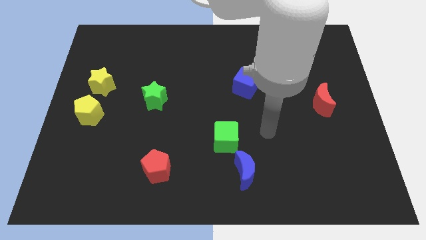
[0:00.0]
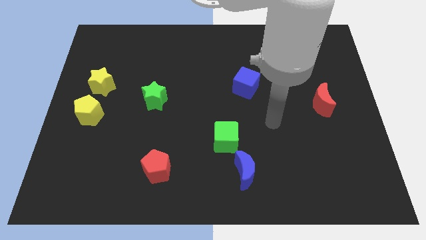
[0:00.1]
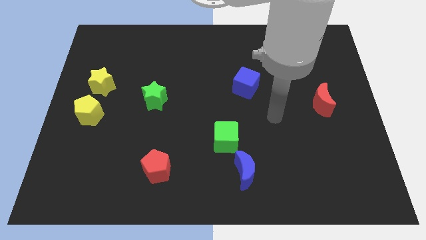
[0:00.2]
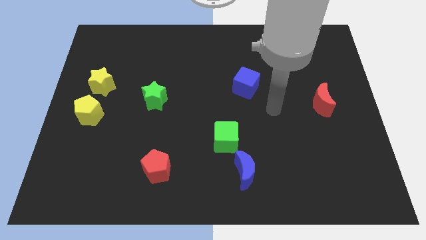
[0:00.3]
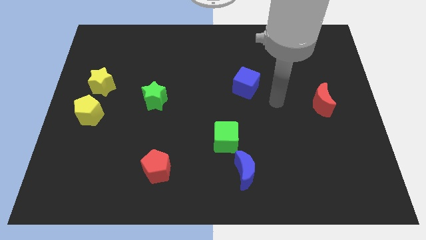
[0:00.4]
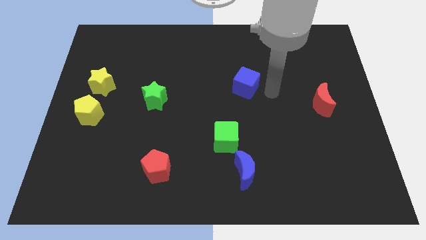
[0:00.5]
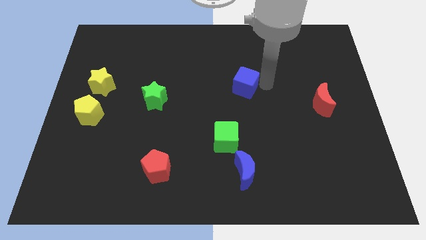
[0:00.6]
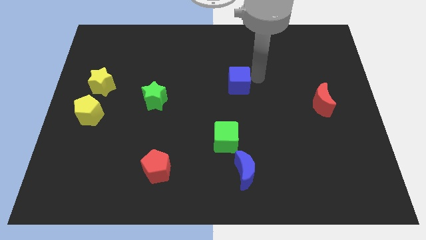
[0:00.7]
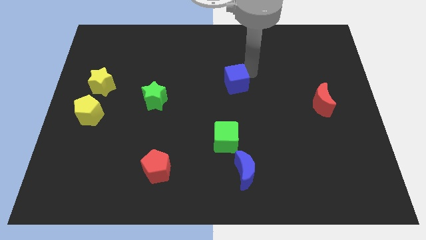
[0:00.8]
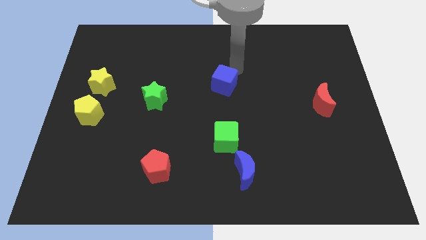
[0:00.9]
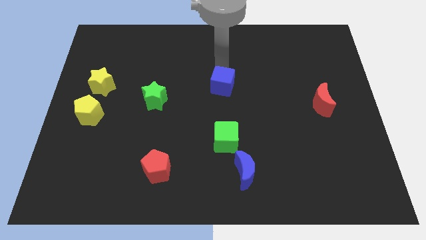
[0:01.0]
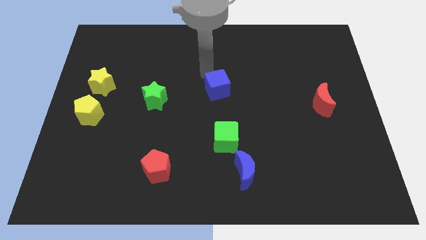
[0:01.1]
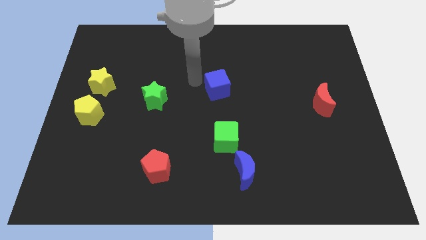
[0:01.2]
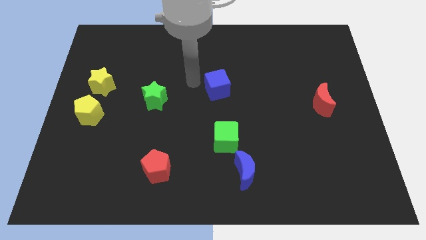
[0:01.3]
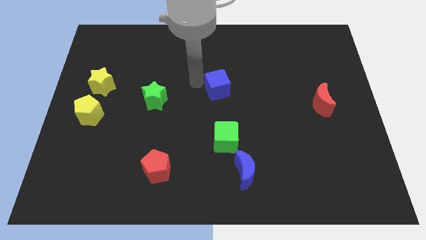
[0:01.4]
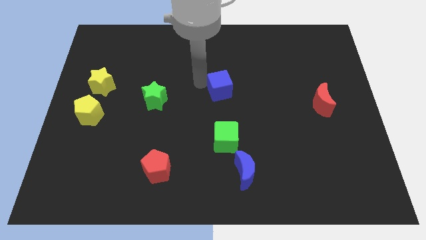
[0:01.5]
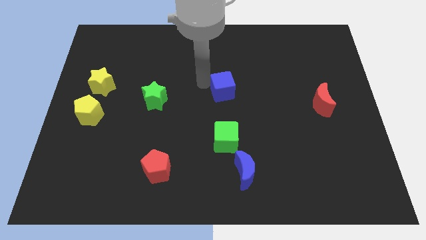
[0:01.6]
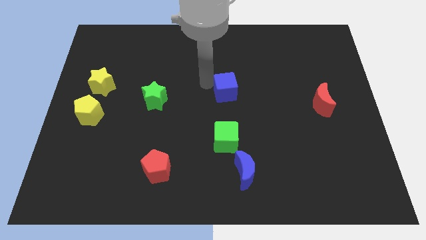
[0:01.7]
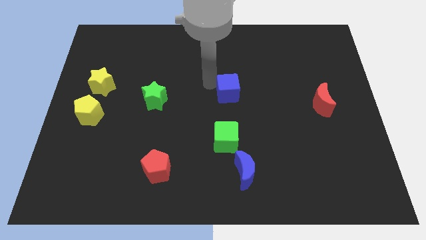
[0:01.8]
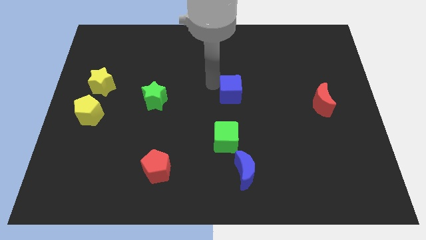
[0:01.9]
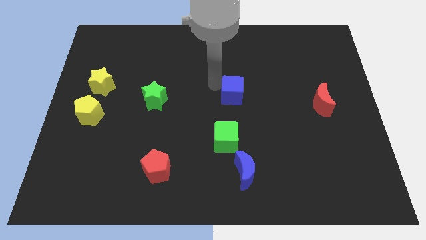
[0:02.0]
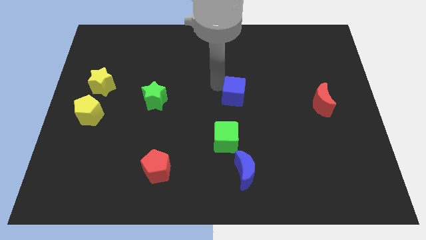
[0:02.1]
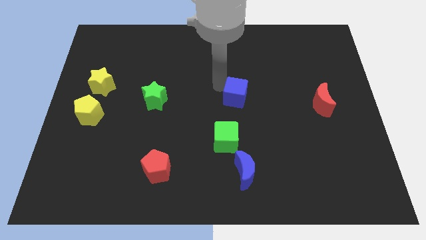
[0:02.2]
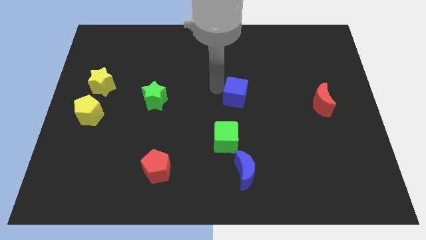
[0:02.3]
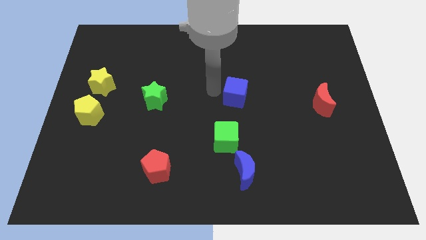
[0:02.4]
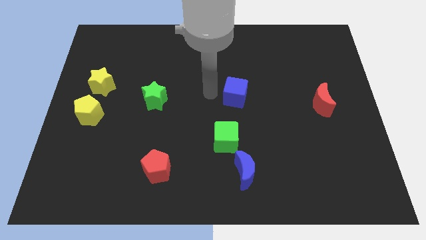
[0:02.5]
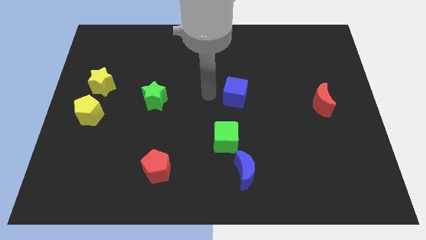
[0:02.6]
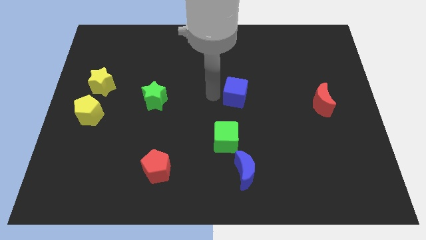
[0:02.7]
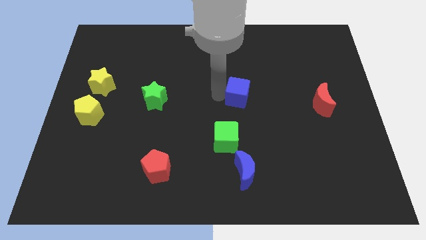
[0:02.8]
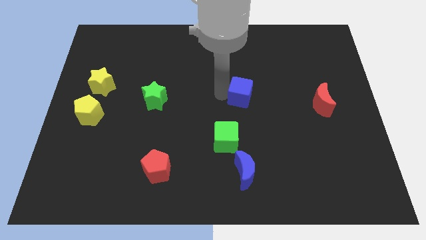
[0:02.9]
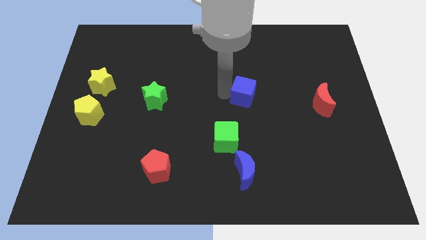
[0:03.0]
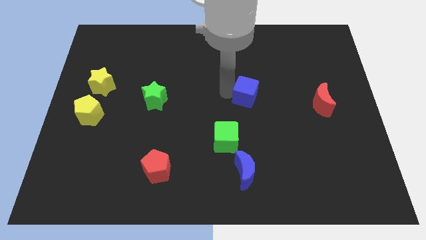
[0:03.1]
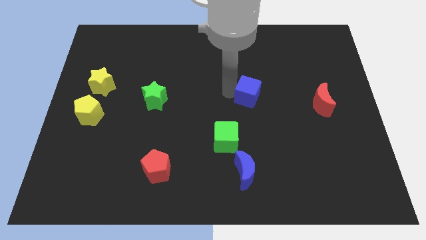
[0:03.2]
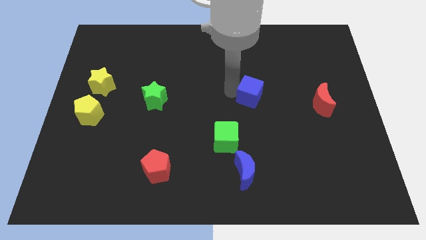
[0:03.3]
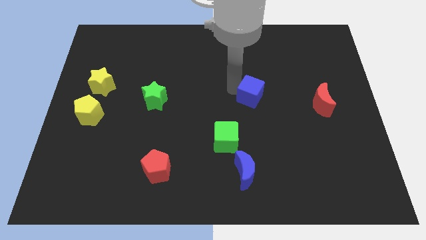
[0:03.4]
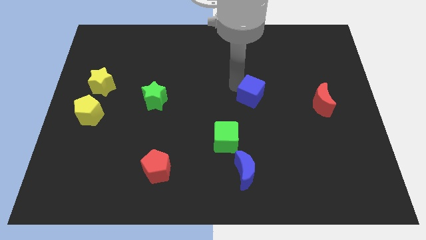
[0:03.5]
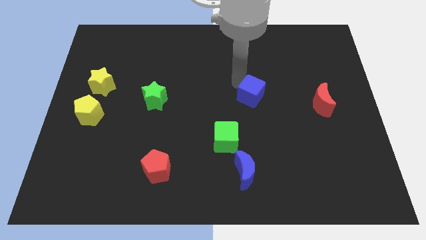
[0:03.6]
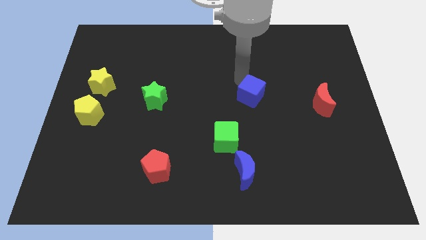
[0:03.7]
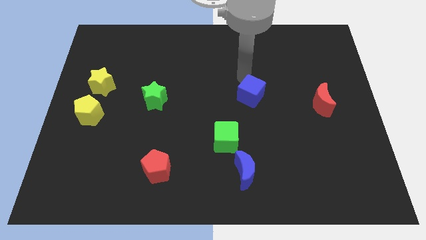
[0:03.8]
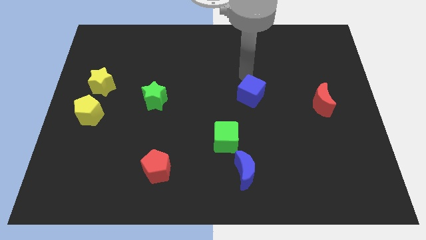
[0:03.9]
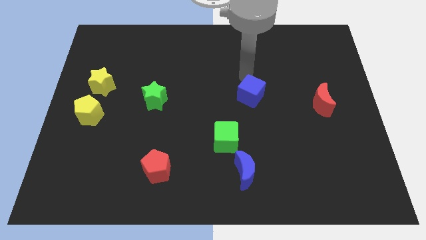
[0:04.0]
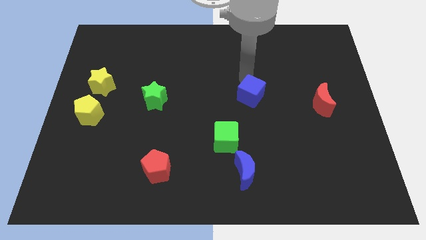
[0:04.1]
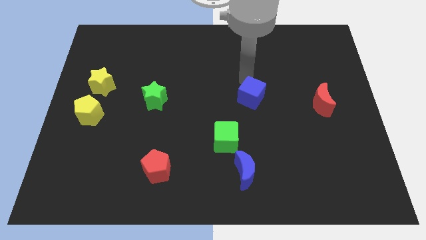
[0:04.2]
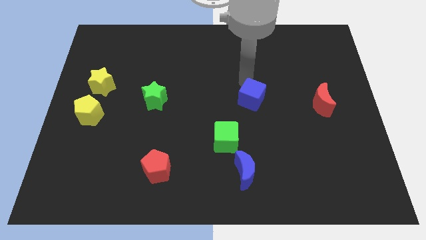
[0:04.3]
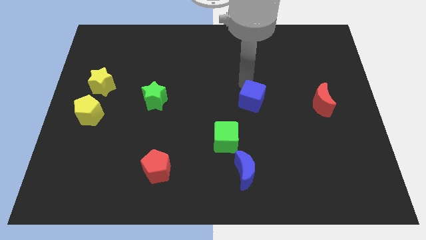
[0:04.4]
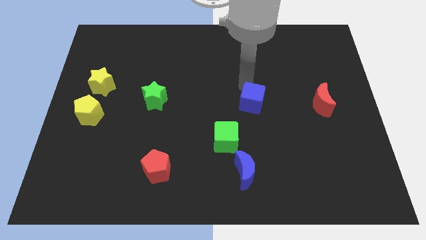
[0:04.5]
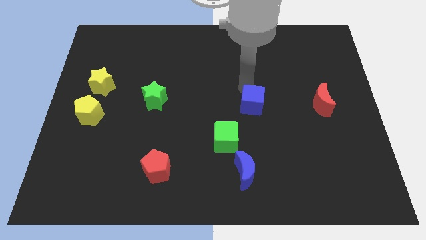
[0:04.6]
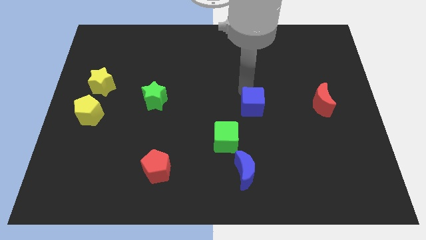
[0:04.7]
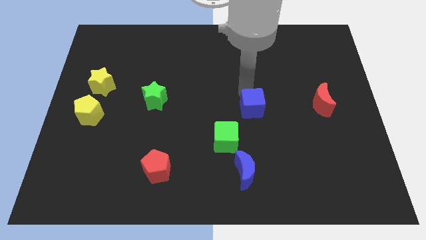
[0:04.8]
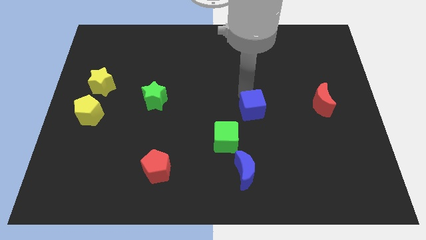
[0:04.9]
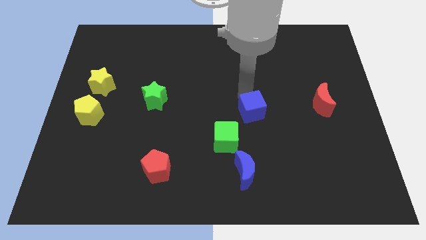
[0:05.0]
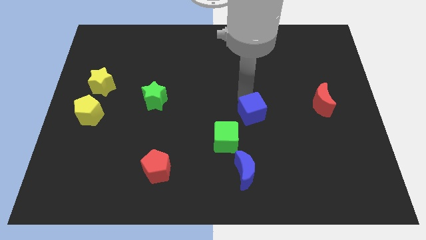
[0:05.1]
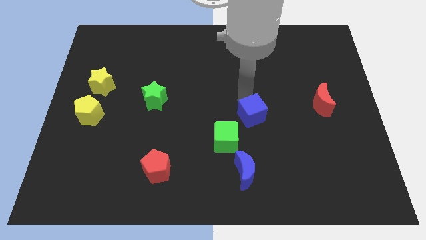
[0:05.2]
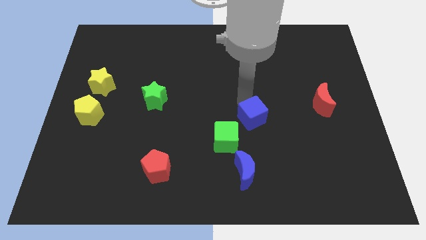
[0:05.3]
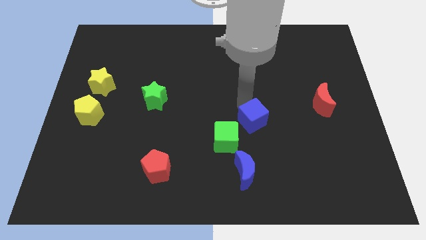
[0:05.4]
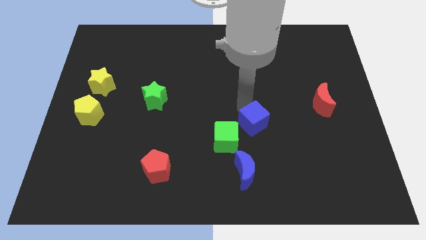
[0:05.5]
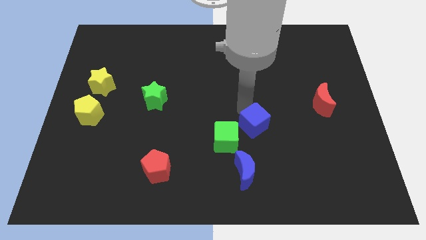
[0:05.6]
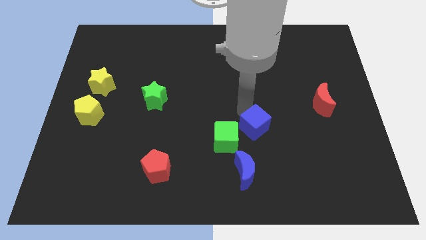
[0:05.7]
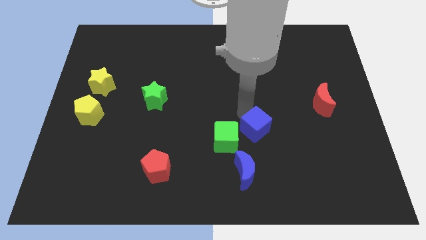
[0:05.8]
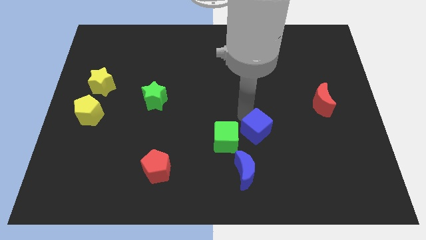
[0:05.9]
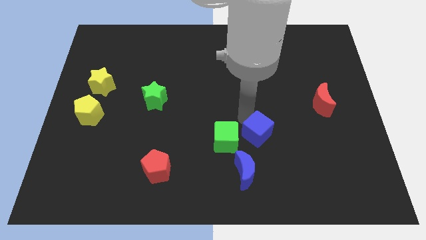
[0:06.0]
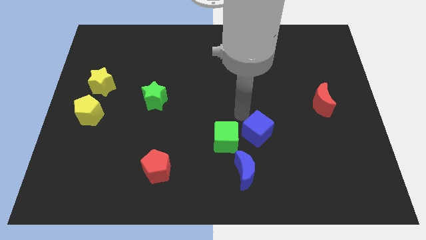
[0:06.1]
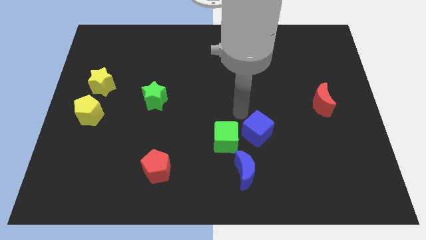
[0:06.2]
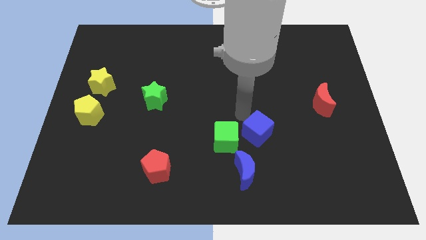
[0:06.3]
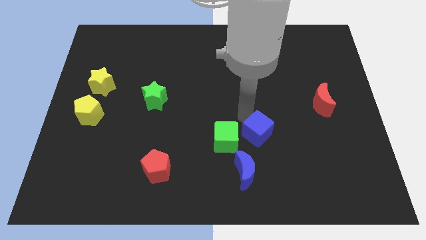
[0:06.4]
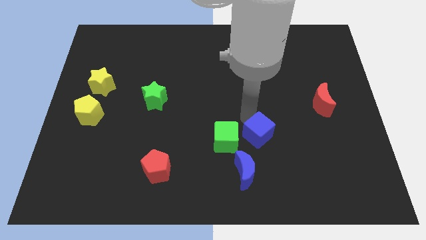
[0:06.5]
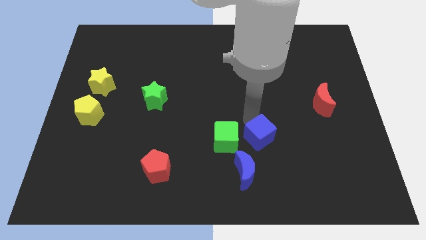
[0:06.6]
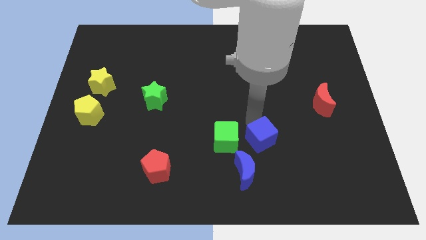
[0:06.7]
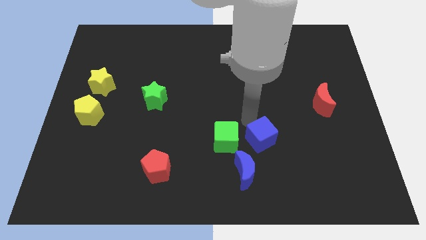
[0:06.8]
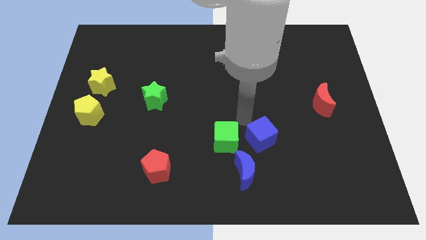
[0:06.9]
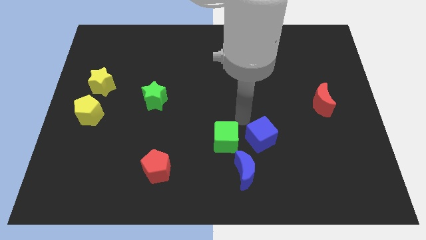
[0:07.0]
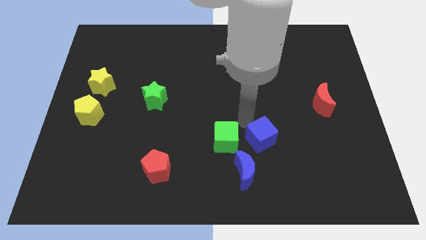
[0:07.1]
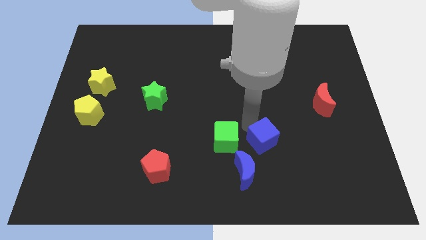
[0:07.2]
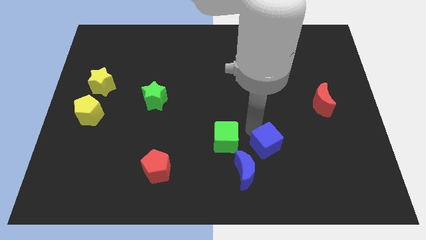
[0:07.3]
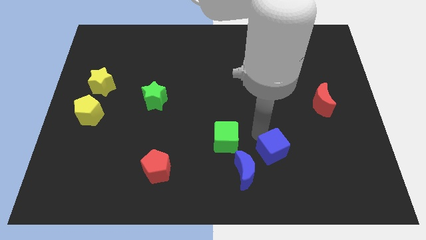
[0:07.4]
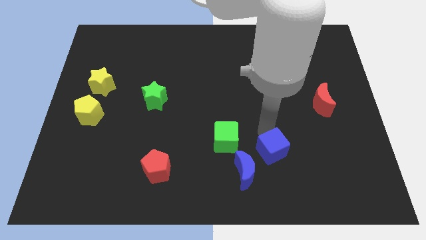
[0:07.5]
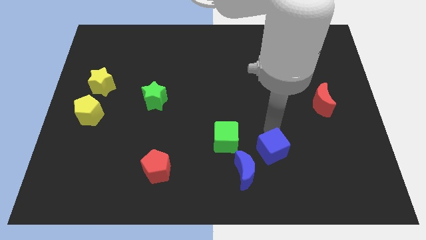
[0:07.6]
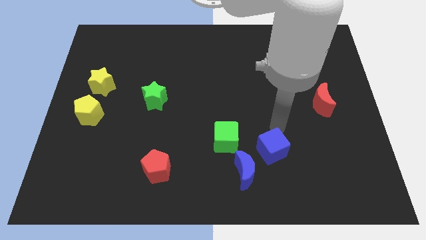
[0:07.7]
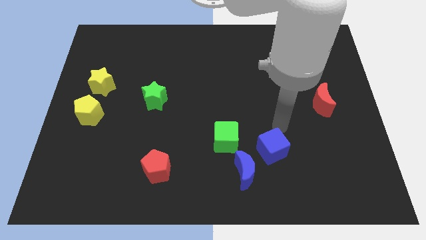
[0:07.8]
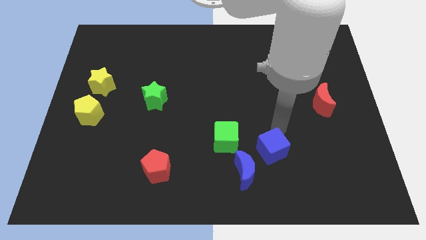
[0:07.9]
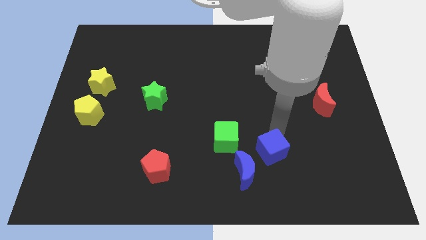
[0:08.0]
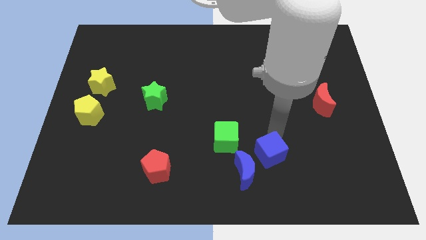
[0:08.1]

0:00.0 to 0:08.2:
slide the blue cube to the bottom right of the green cube
